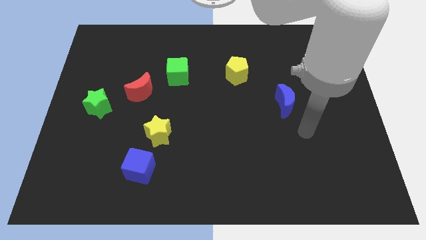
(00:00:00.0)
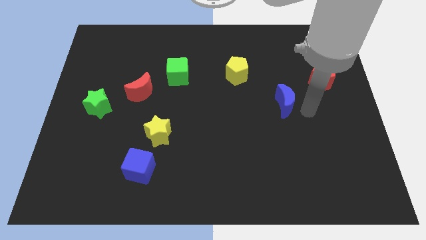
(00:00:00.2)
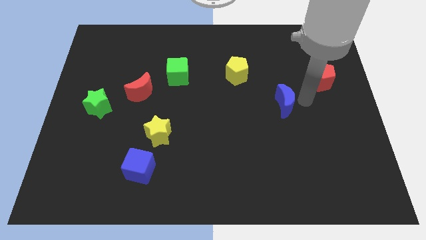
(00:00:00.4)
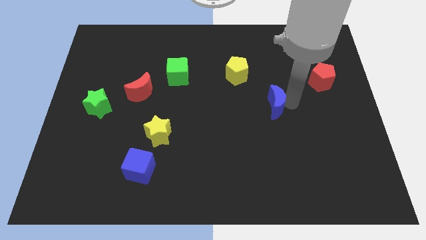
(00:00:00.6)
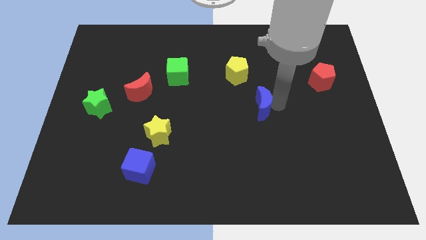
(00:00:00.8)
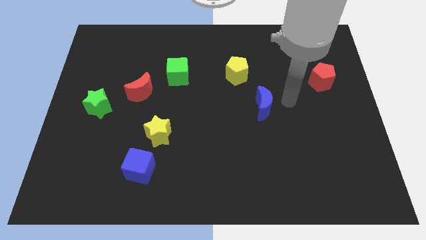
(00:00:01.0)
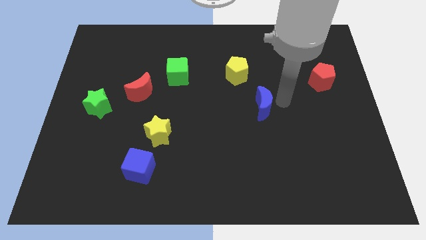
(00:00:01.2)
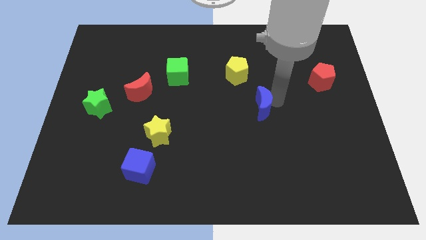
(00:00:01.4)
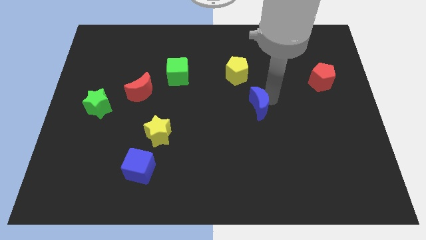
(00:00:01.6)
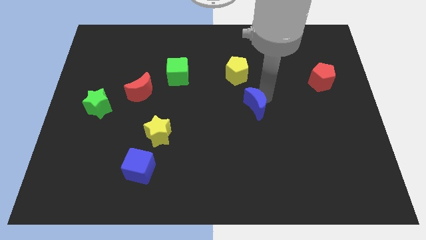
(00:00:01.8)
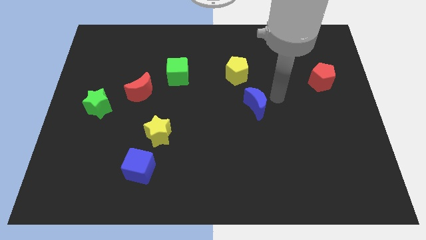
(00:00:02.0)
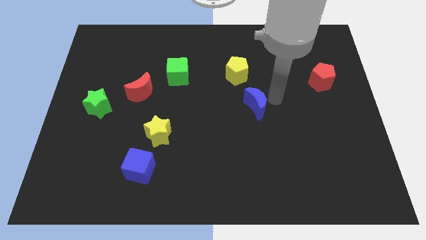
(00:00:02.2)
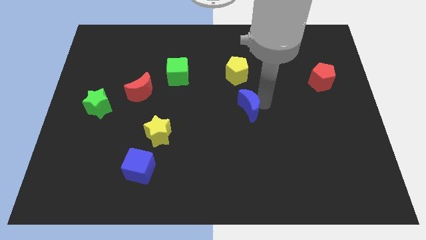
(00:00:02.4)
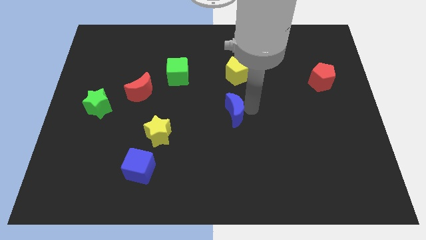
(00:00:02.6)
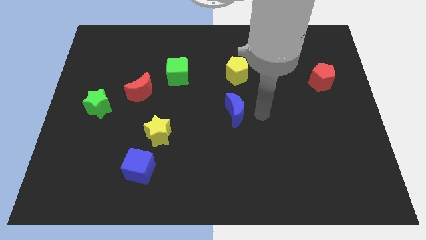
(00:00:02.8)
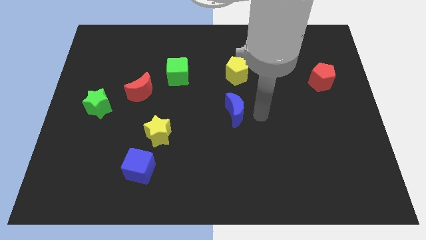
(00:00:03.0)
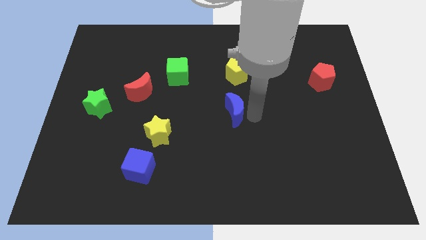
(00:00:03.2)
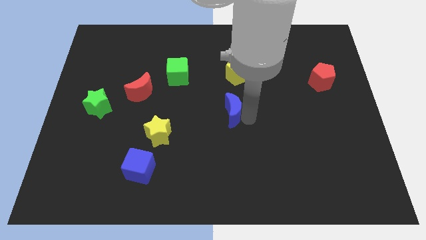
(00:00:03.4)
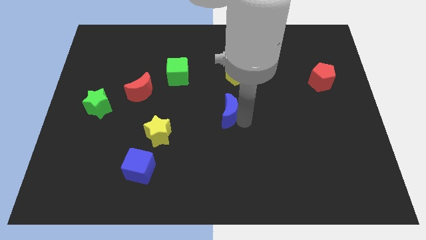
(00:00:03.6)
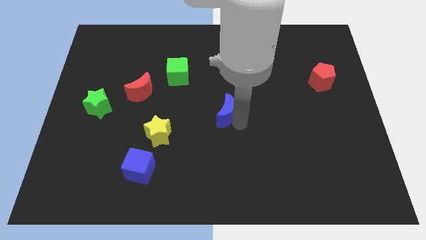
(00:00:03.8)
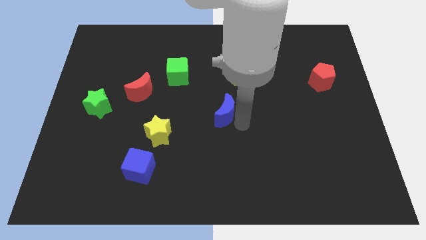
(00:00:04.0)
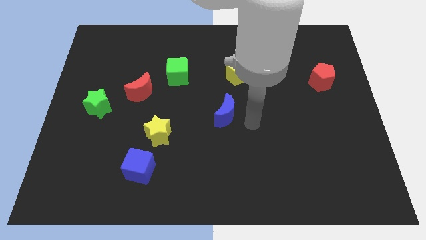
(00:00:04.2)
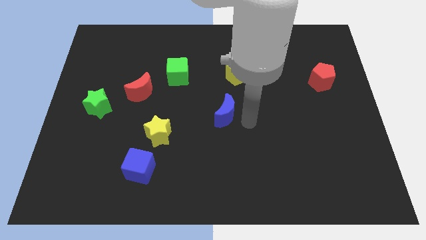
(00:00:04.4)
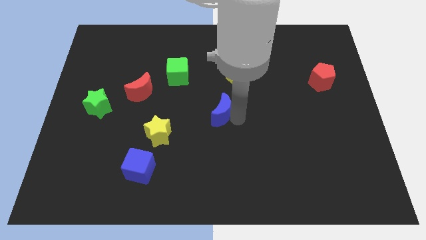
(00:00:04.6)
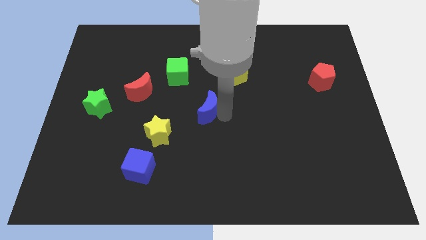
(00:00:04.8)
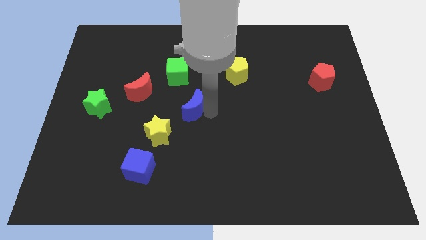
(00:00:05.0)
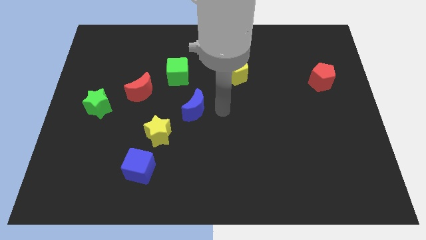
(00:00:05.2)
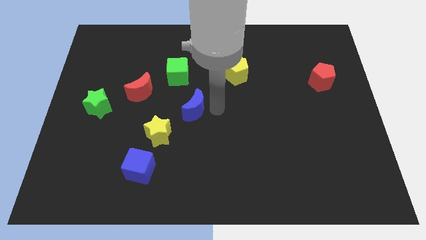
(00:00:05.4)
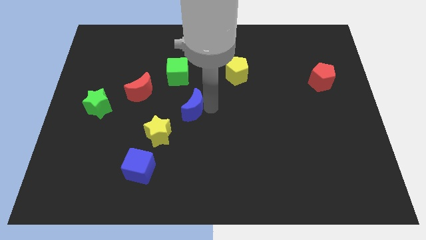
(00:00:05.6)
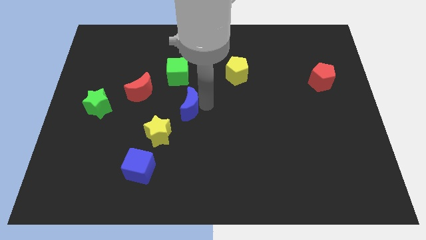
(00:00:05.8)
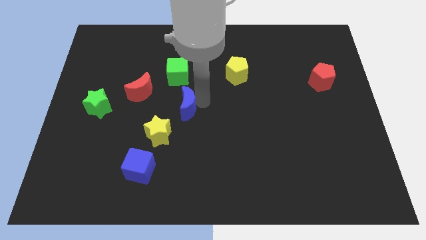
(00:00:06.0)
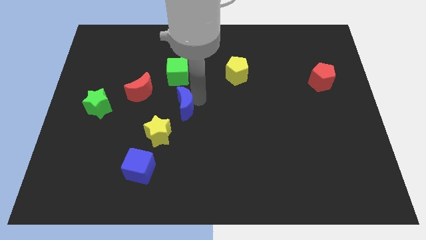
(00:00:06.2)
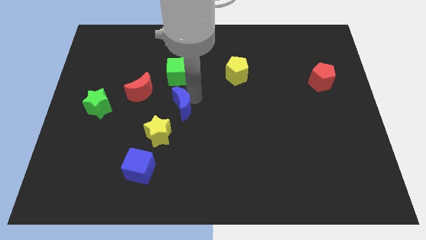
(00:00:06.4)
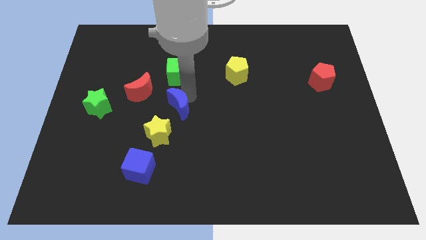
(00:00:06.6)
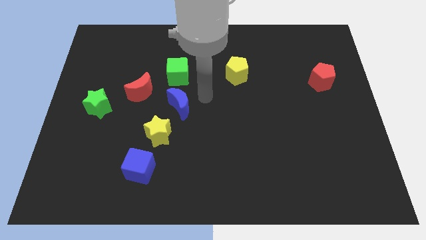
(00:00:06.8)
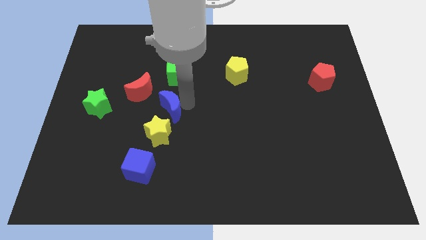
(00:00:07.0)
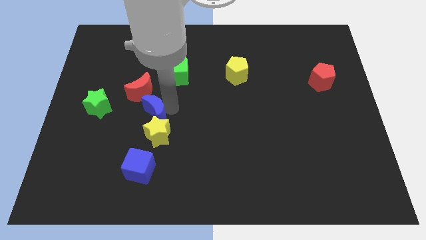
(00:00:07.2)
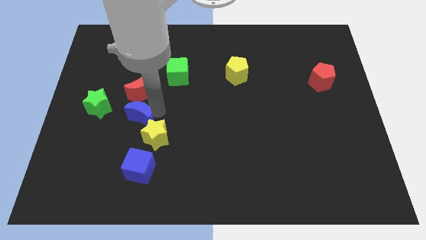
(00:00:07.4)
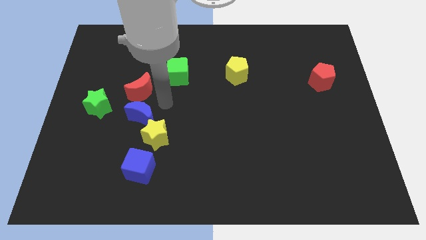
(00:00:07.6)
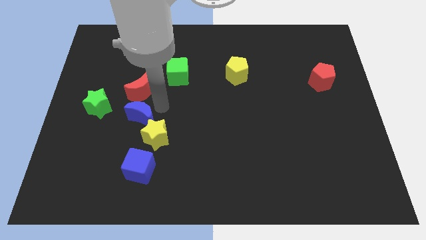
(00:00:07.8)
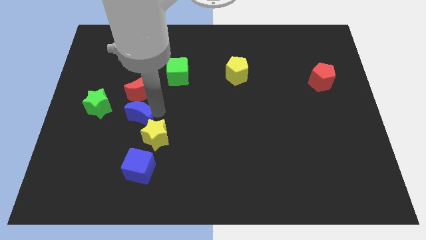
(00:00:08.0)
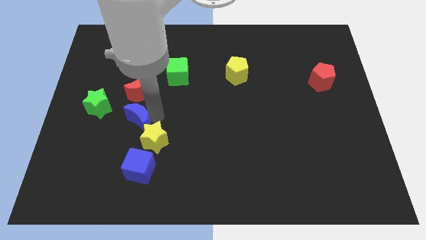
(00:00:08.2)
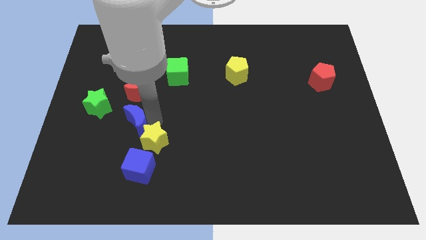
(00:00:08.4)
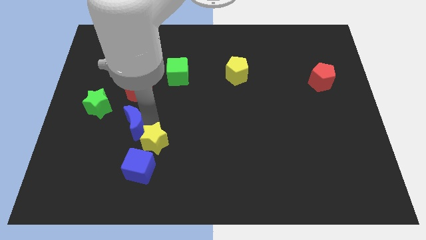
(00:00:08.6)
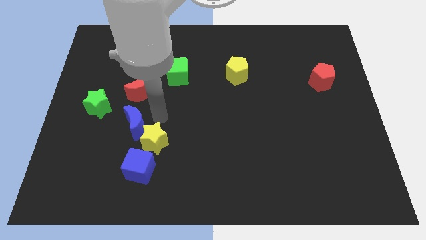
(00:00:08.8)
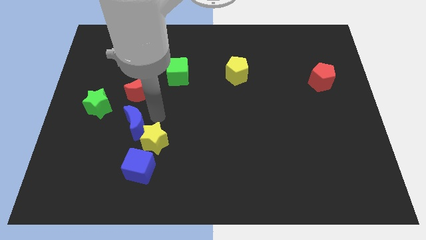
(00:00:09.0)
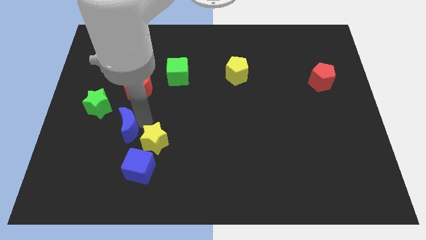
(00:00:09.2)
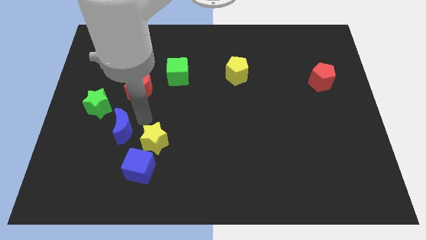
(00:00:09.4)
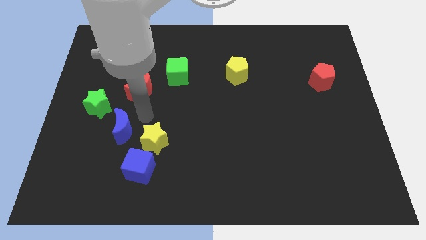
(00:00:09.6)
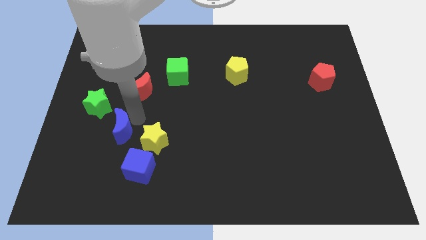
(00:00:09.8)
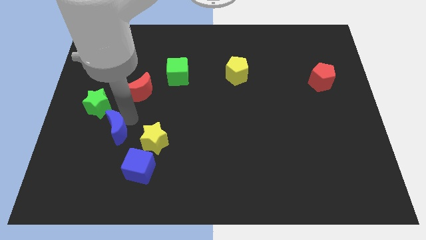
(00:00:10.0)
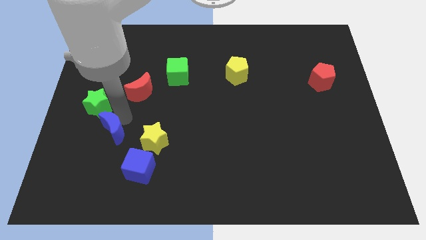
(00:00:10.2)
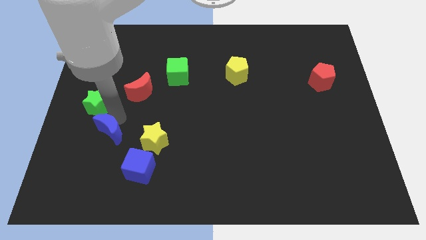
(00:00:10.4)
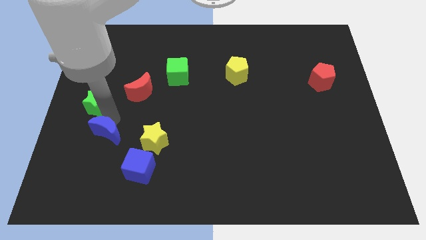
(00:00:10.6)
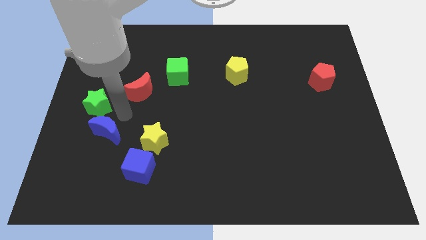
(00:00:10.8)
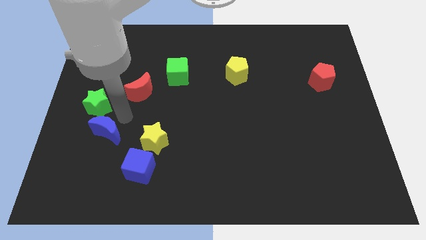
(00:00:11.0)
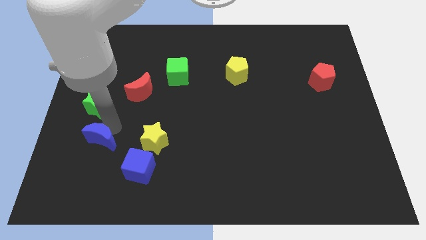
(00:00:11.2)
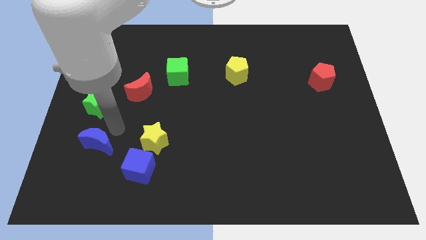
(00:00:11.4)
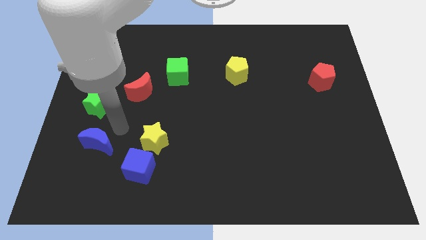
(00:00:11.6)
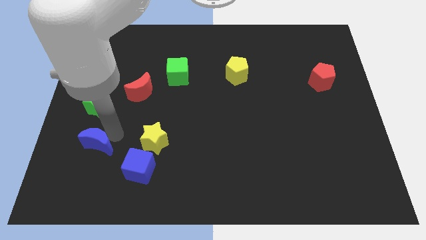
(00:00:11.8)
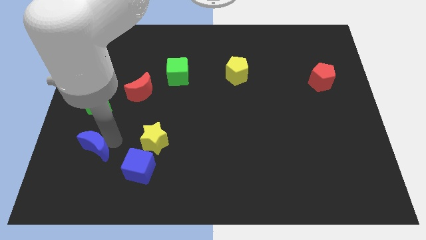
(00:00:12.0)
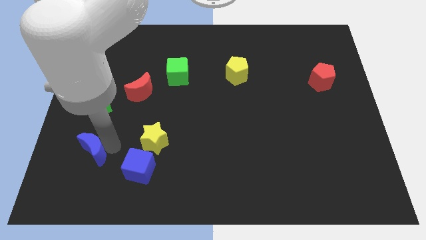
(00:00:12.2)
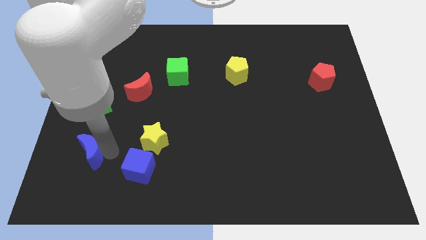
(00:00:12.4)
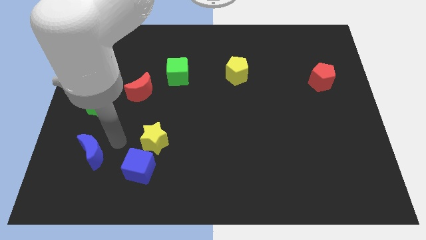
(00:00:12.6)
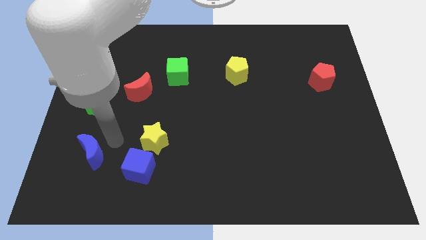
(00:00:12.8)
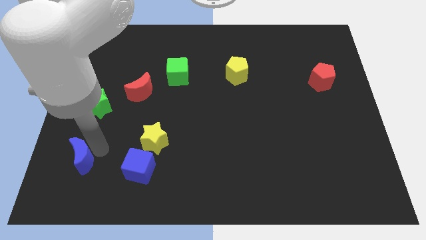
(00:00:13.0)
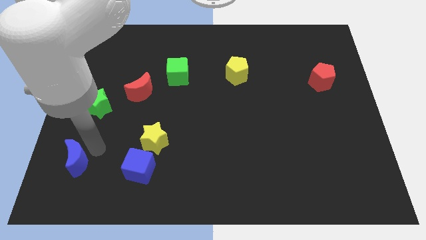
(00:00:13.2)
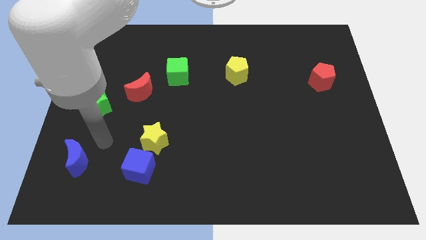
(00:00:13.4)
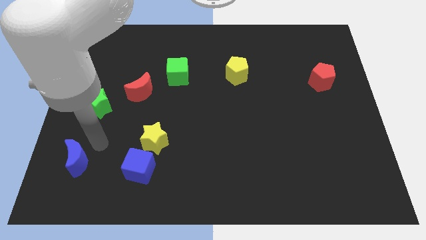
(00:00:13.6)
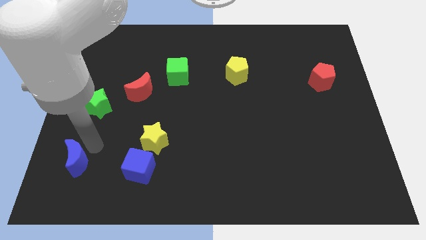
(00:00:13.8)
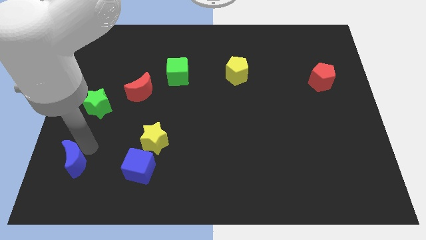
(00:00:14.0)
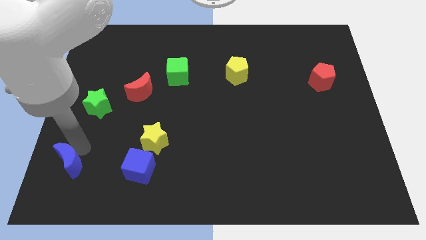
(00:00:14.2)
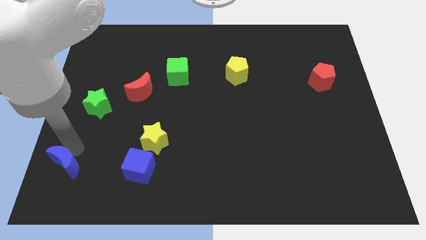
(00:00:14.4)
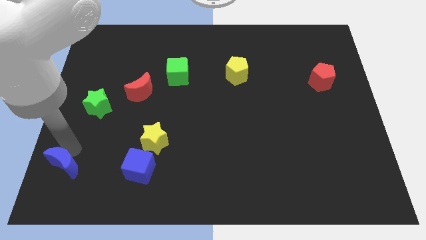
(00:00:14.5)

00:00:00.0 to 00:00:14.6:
slide the blue moon to the bottom left of the board
